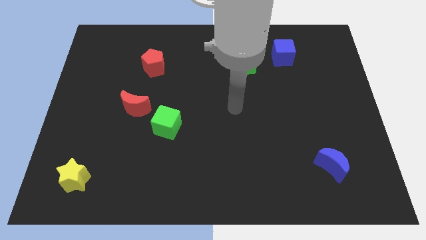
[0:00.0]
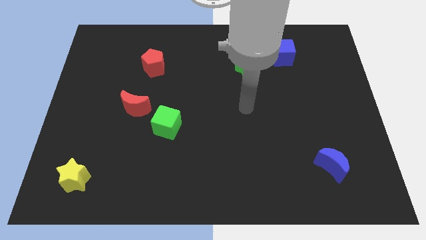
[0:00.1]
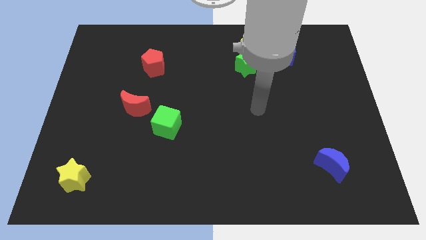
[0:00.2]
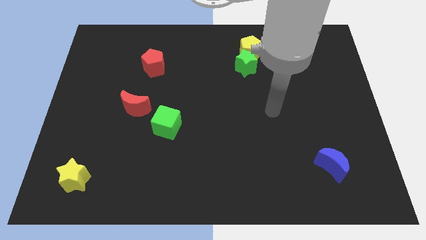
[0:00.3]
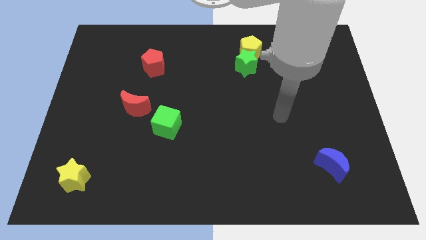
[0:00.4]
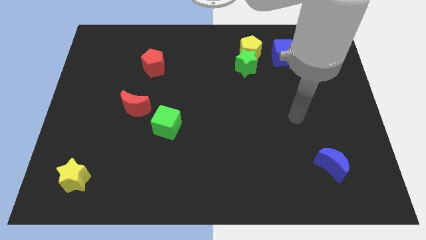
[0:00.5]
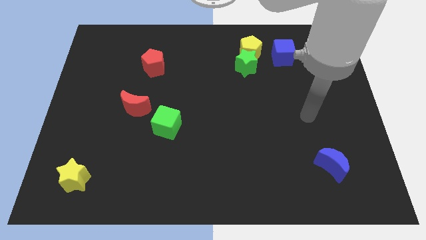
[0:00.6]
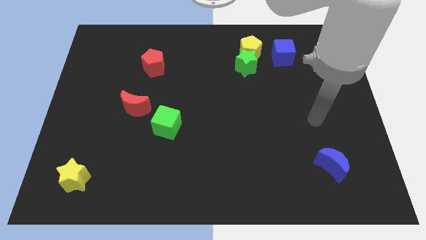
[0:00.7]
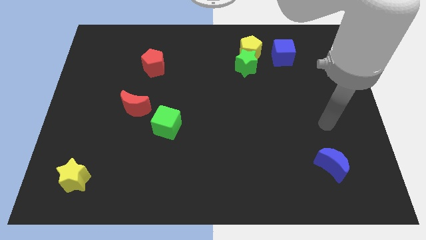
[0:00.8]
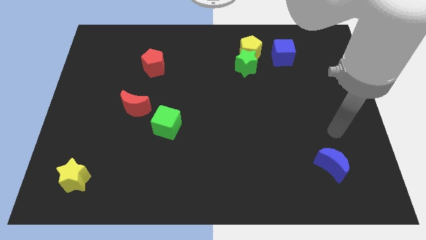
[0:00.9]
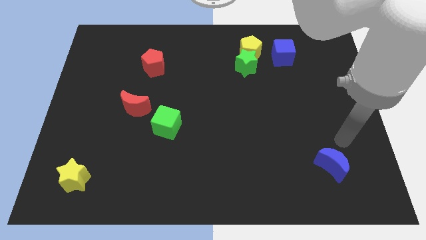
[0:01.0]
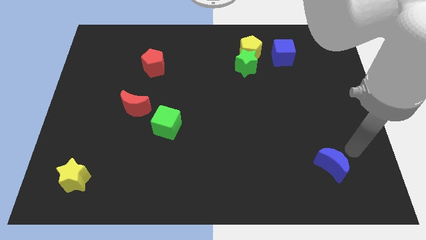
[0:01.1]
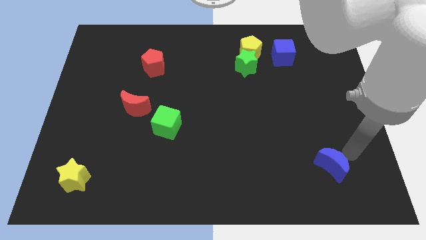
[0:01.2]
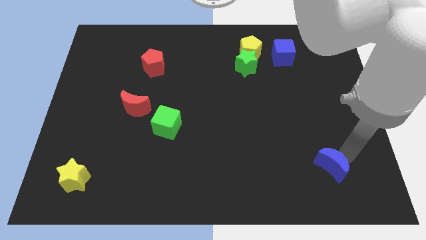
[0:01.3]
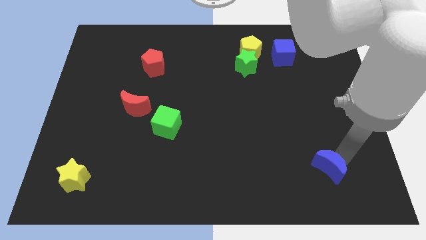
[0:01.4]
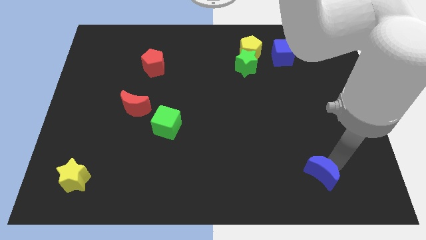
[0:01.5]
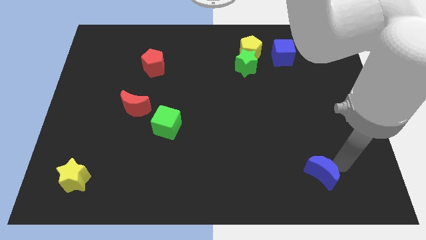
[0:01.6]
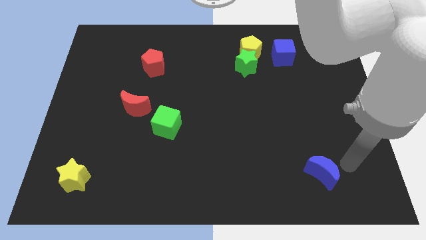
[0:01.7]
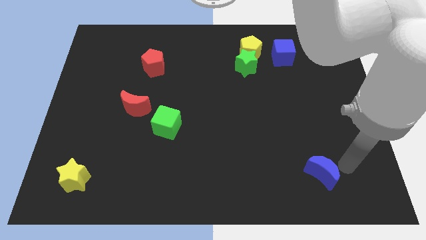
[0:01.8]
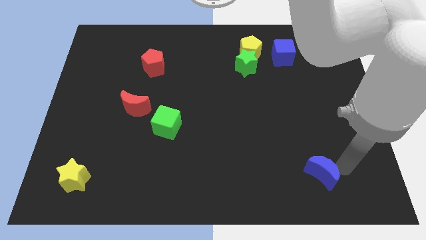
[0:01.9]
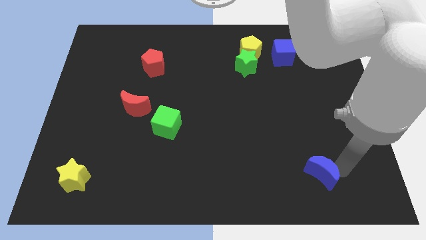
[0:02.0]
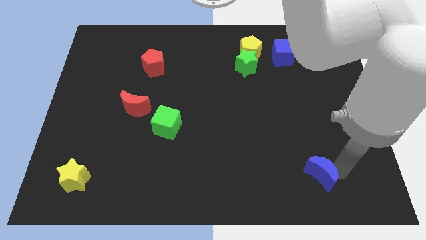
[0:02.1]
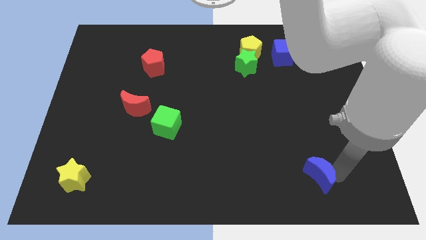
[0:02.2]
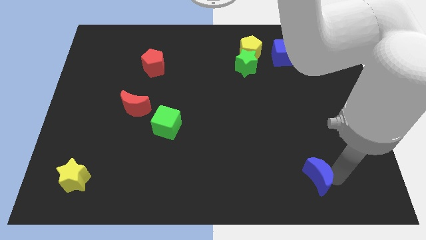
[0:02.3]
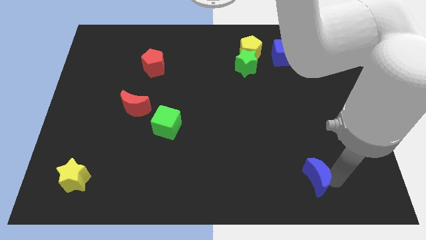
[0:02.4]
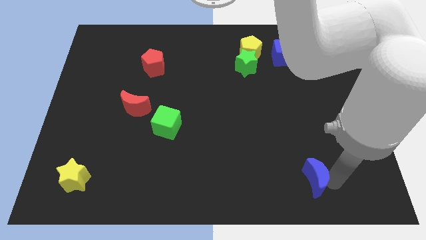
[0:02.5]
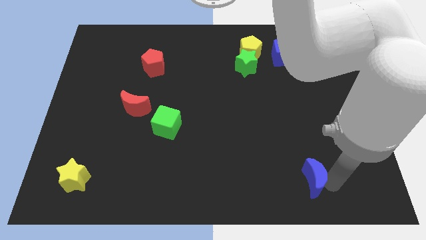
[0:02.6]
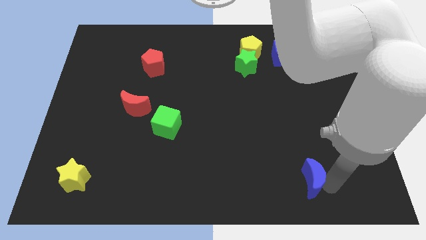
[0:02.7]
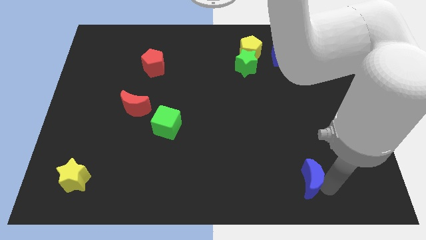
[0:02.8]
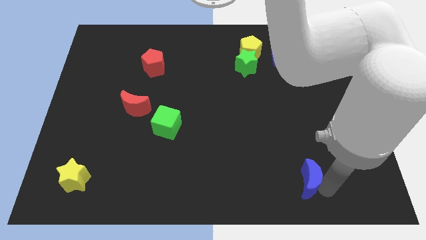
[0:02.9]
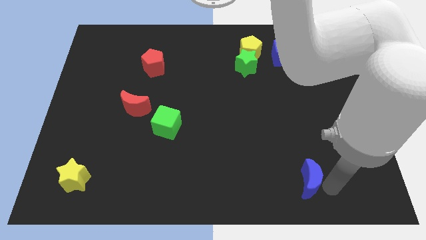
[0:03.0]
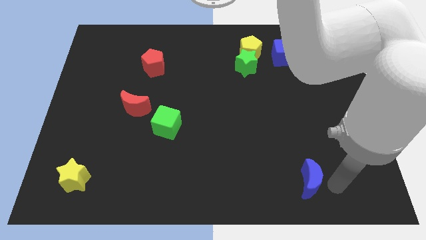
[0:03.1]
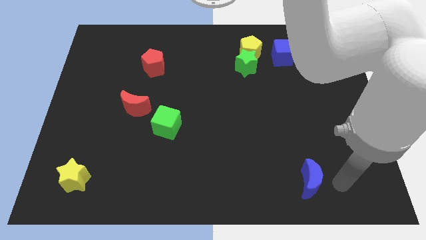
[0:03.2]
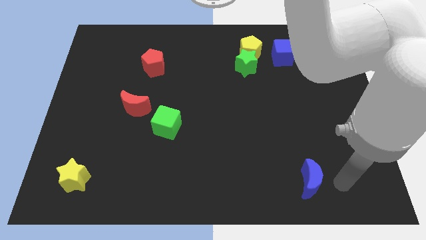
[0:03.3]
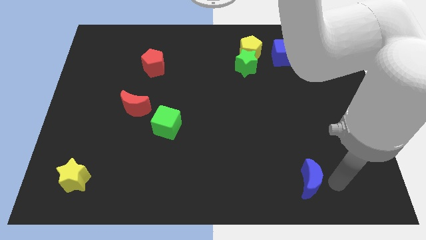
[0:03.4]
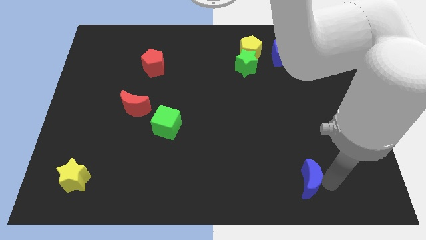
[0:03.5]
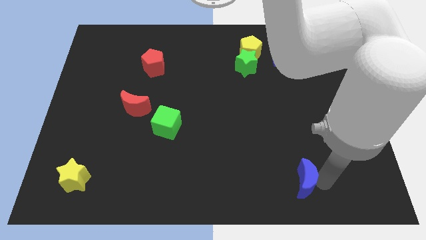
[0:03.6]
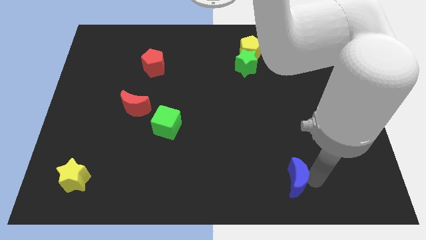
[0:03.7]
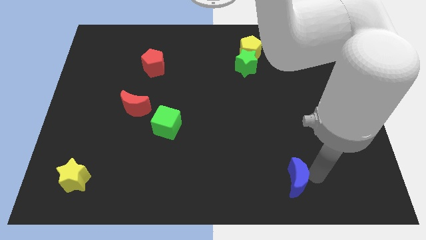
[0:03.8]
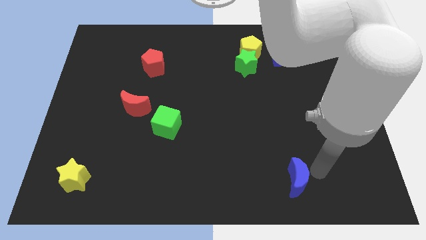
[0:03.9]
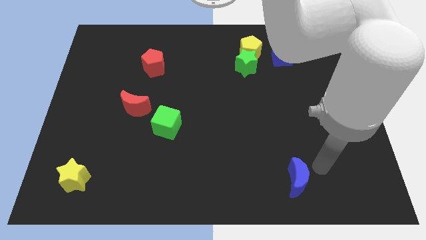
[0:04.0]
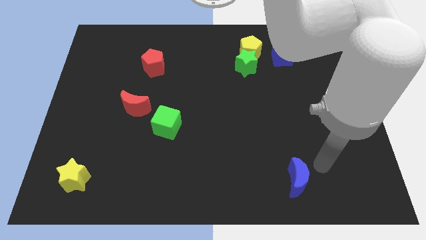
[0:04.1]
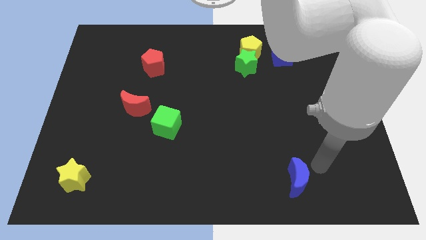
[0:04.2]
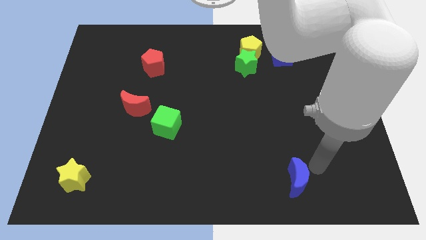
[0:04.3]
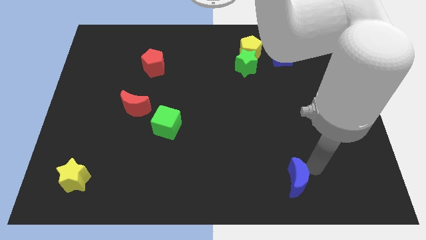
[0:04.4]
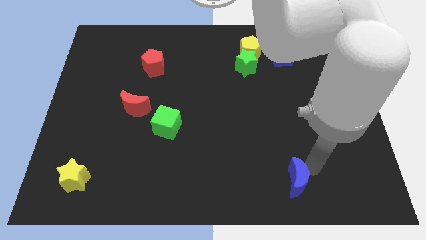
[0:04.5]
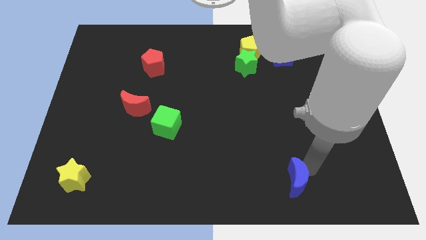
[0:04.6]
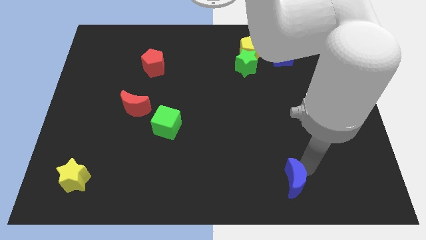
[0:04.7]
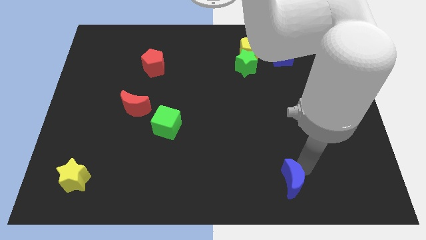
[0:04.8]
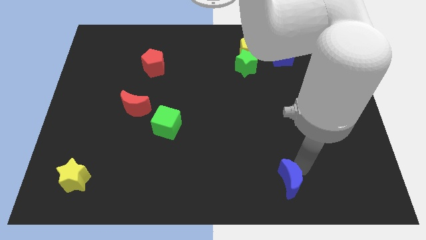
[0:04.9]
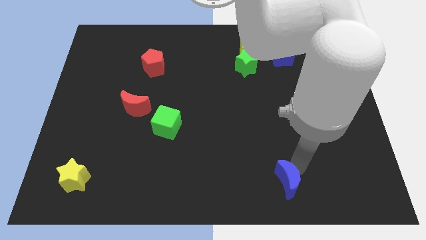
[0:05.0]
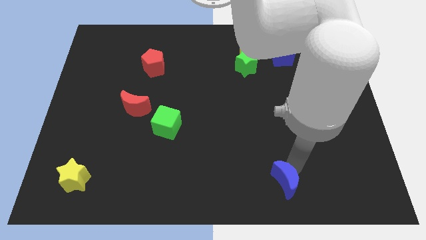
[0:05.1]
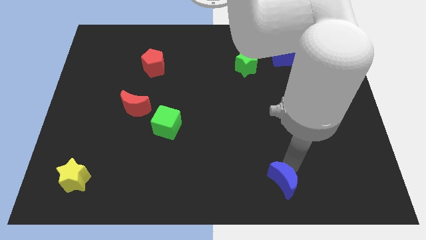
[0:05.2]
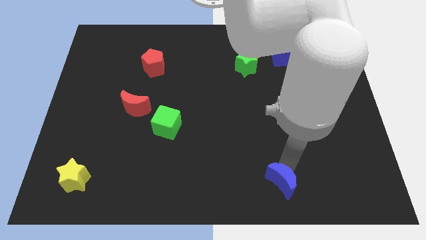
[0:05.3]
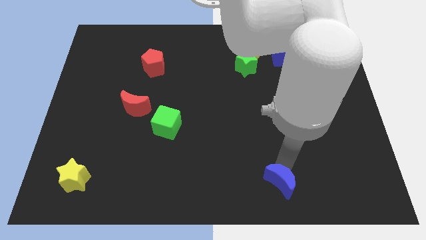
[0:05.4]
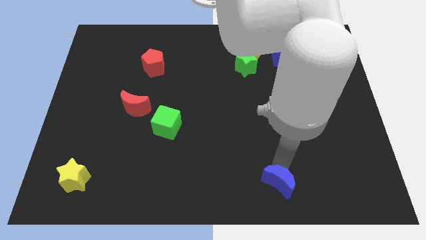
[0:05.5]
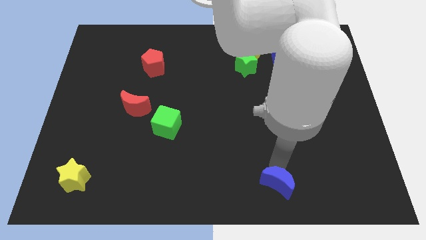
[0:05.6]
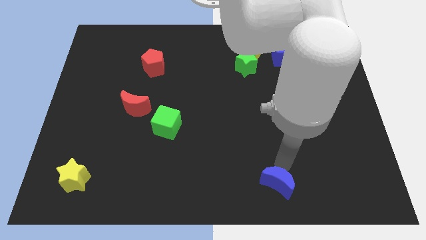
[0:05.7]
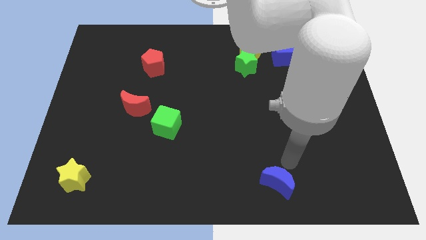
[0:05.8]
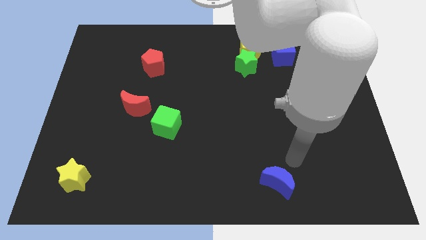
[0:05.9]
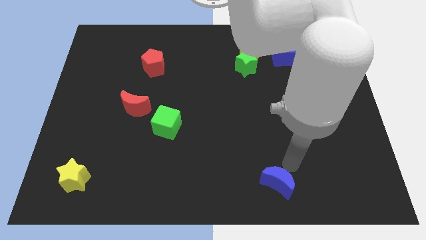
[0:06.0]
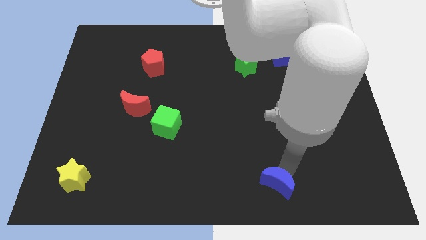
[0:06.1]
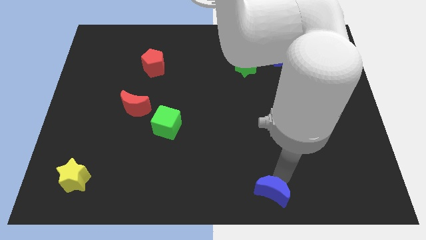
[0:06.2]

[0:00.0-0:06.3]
push the blue moon to the bottom
